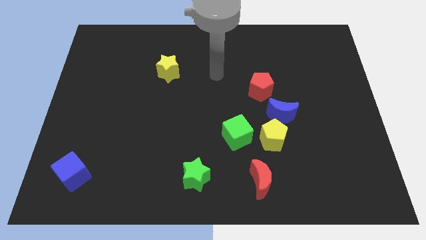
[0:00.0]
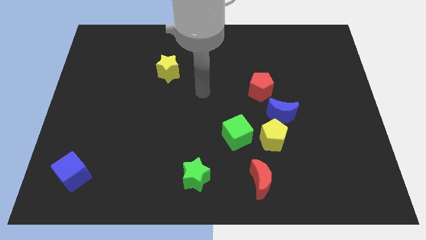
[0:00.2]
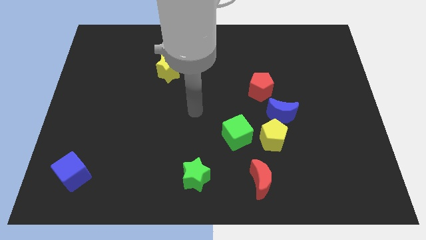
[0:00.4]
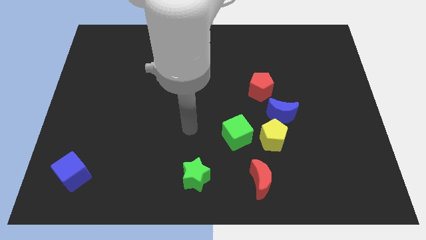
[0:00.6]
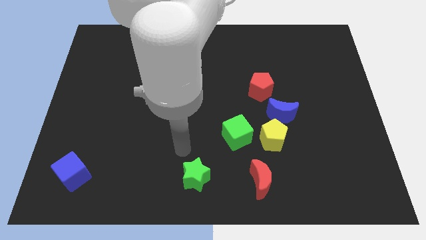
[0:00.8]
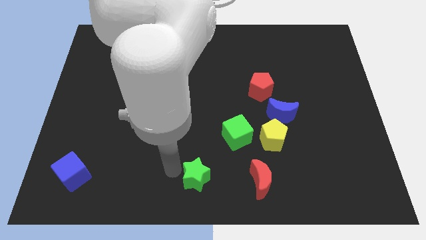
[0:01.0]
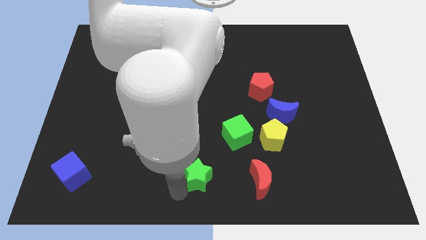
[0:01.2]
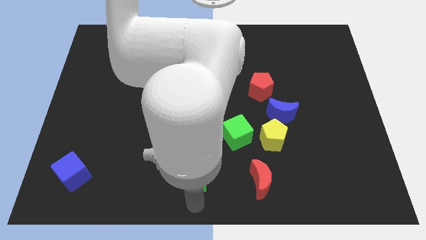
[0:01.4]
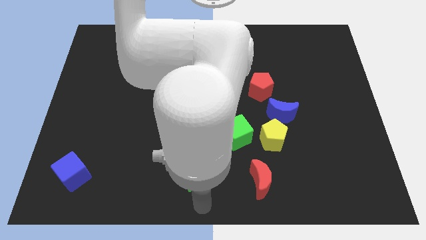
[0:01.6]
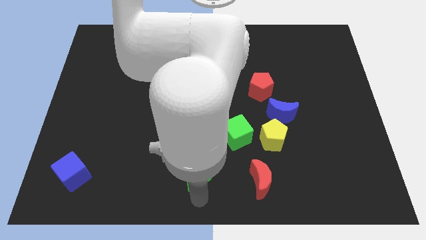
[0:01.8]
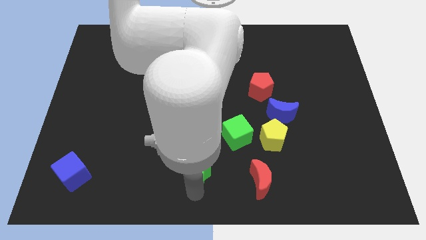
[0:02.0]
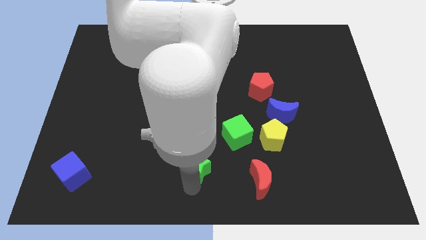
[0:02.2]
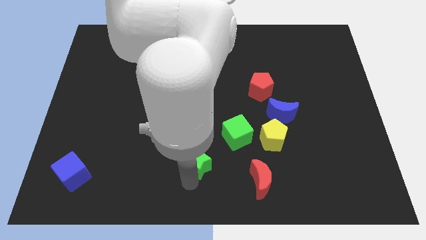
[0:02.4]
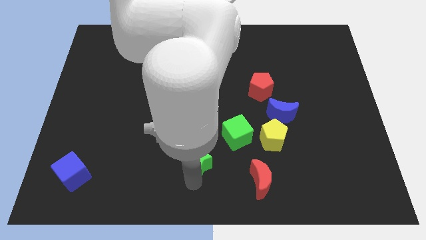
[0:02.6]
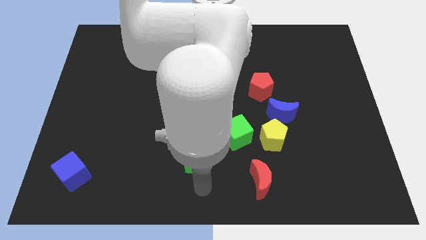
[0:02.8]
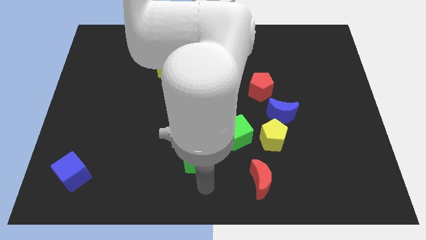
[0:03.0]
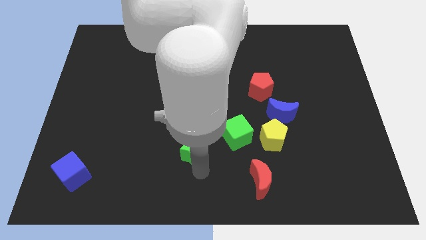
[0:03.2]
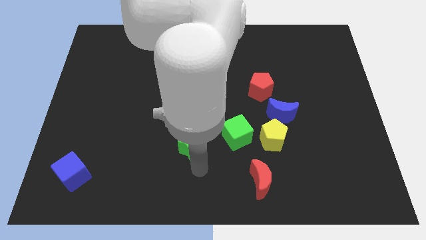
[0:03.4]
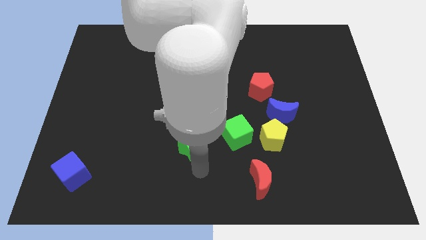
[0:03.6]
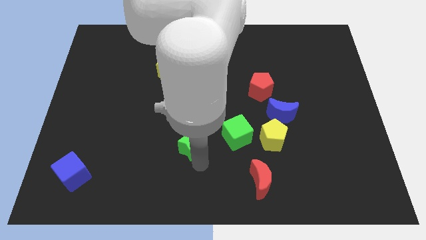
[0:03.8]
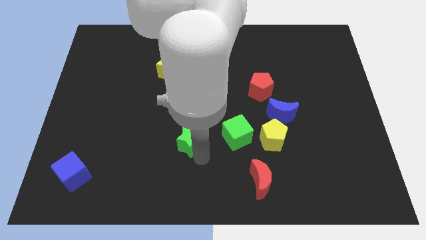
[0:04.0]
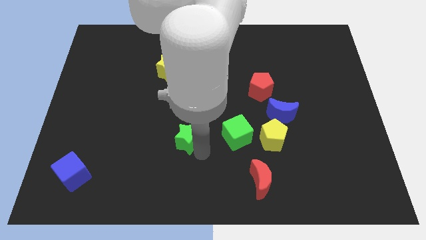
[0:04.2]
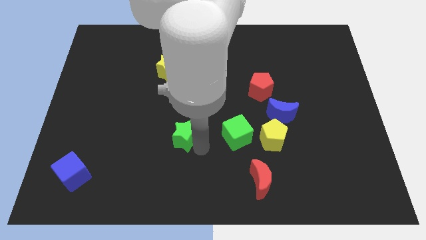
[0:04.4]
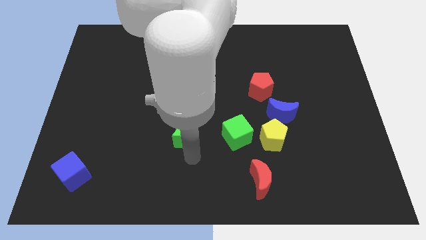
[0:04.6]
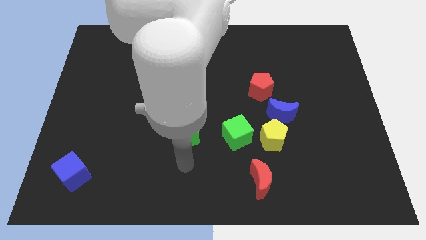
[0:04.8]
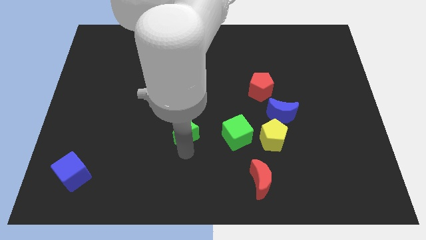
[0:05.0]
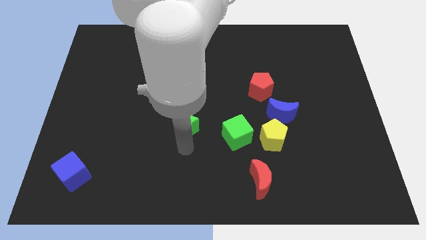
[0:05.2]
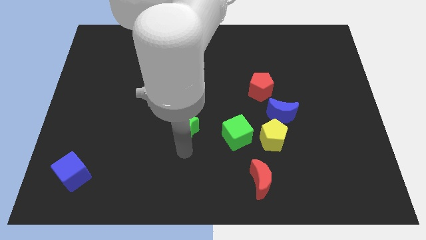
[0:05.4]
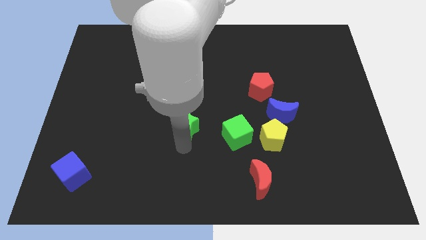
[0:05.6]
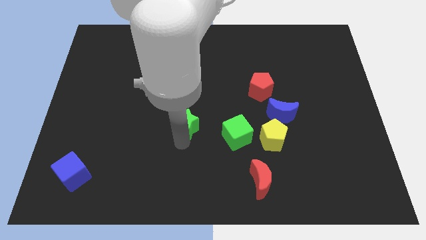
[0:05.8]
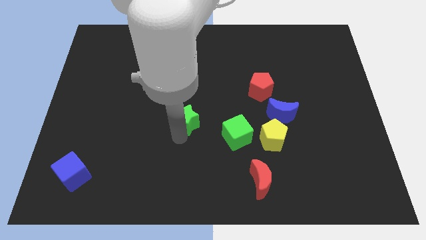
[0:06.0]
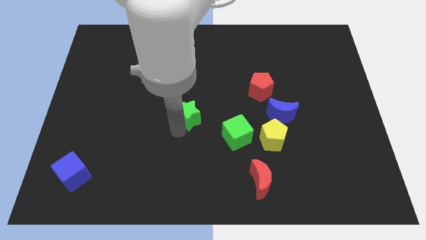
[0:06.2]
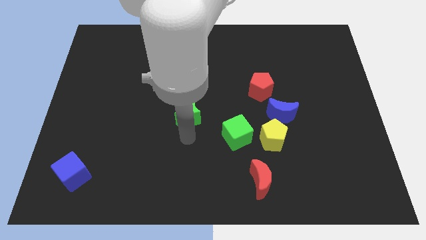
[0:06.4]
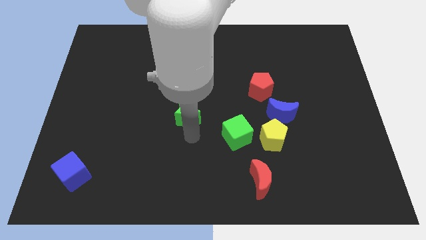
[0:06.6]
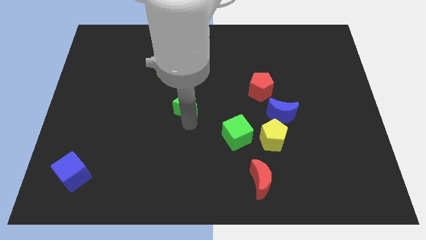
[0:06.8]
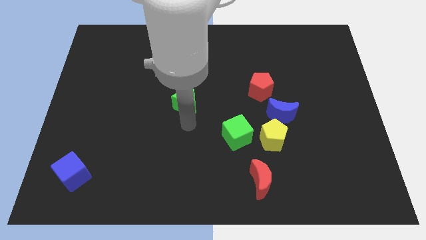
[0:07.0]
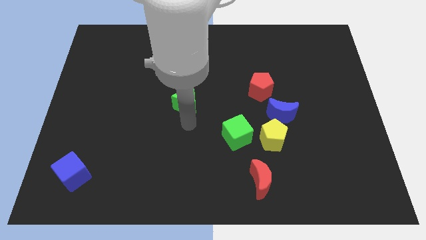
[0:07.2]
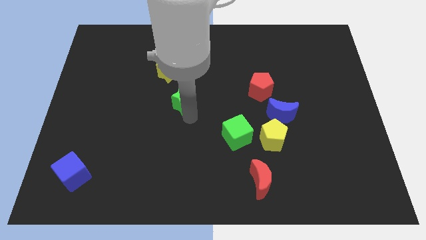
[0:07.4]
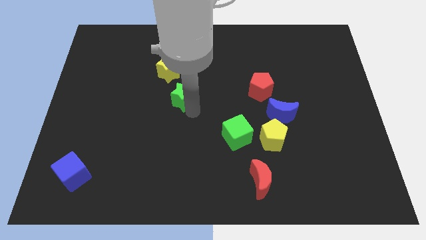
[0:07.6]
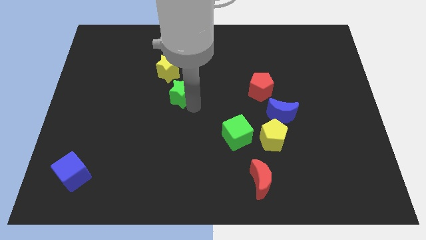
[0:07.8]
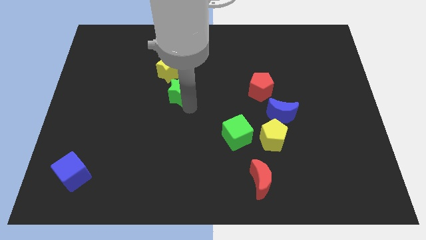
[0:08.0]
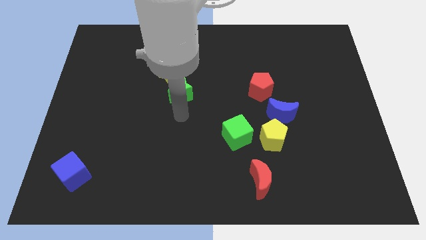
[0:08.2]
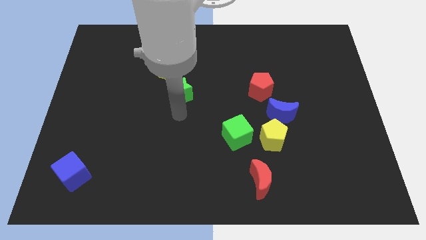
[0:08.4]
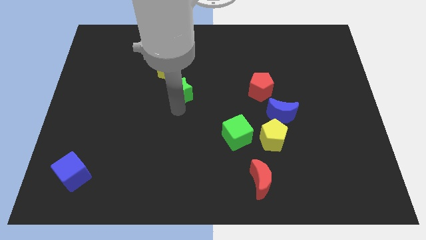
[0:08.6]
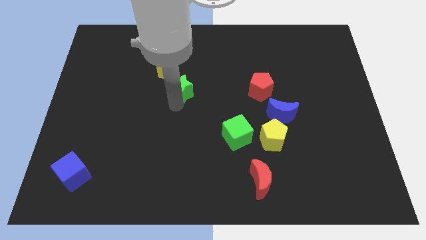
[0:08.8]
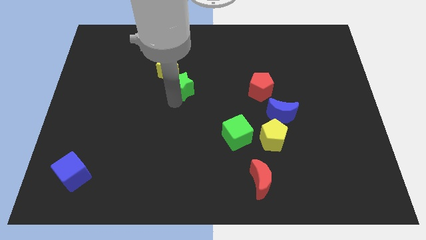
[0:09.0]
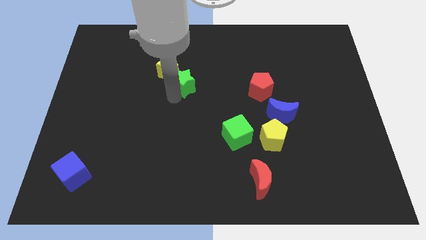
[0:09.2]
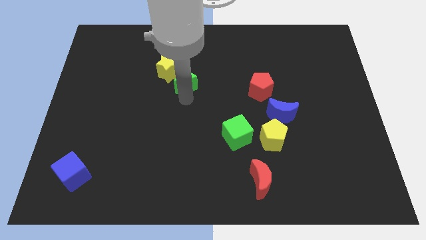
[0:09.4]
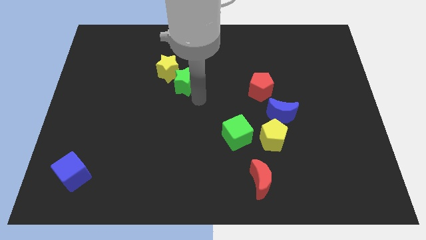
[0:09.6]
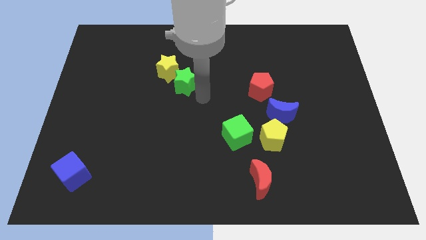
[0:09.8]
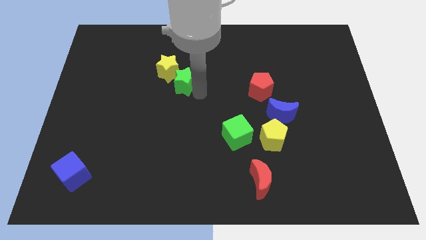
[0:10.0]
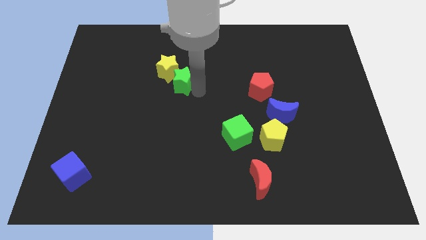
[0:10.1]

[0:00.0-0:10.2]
put the green star to the yellow star

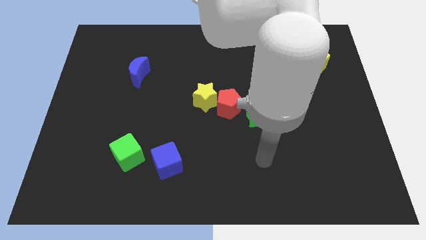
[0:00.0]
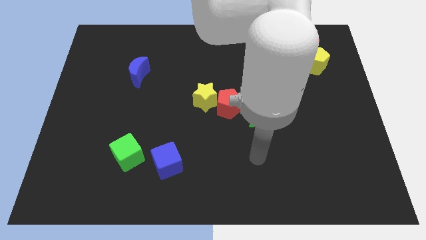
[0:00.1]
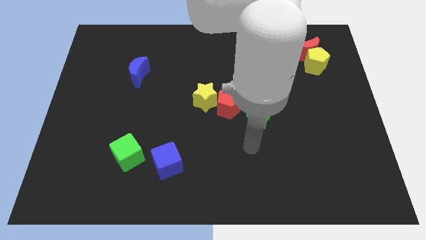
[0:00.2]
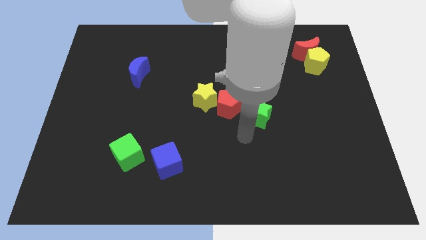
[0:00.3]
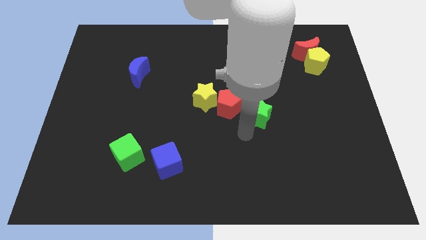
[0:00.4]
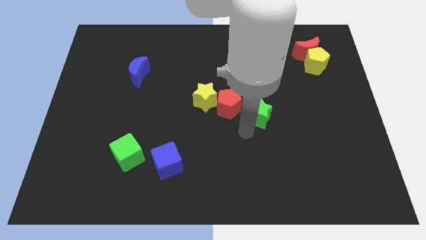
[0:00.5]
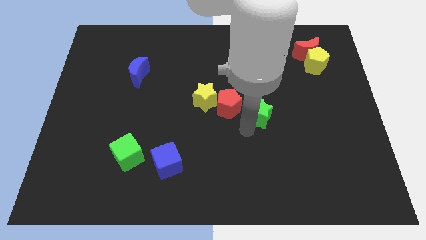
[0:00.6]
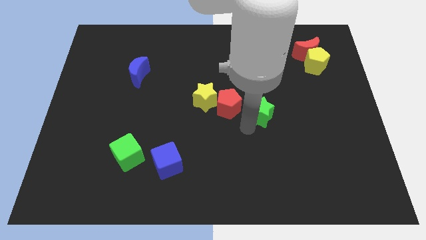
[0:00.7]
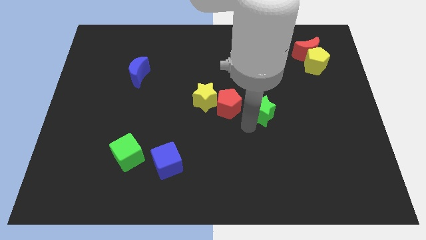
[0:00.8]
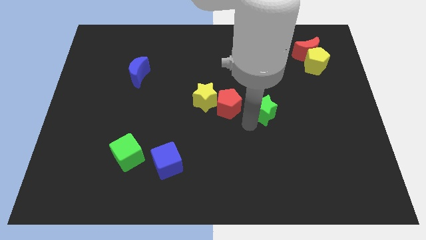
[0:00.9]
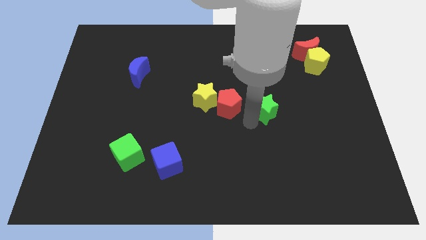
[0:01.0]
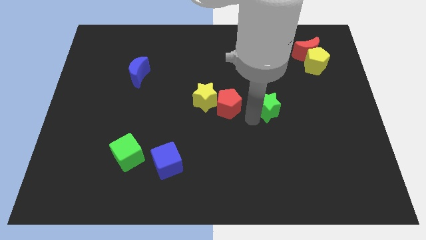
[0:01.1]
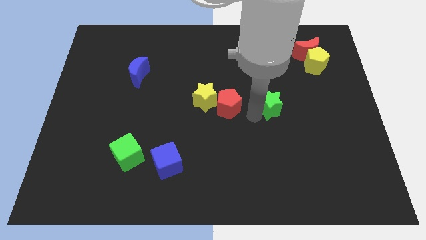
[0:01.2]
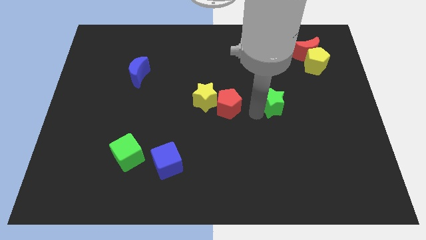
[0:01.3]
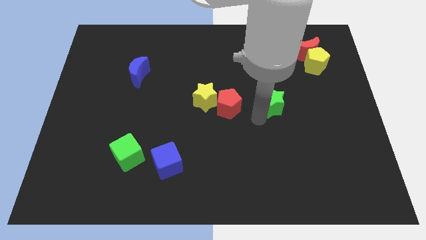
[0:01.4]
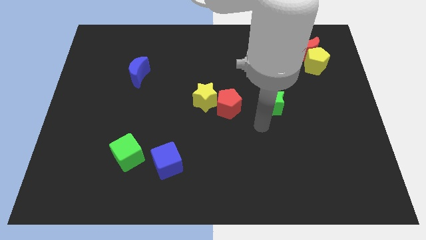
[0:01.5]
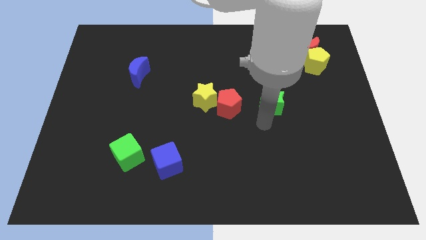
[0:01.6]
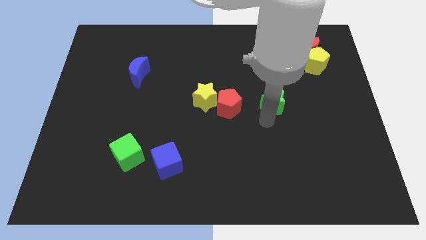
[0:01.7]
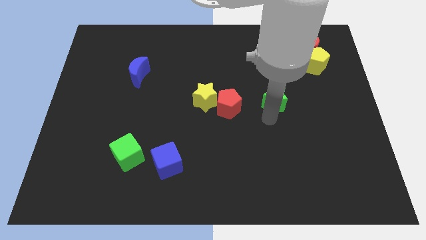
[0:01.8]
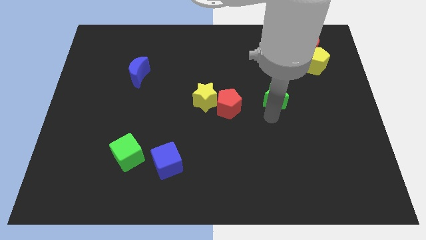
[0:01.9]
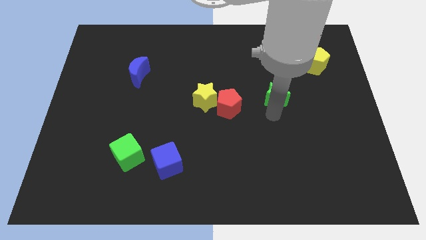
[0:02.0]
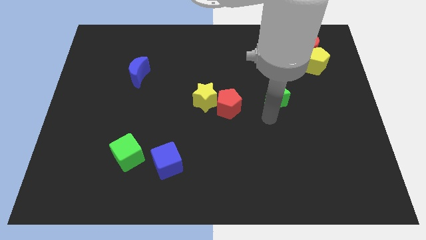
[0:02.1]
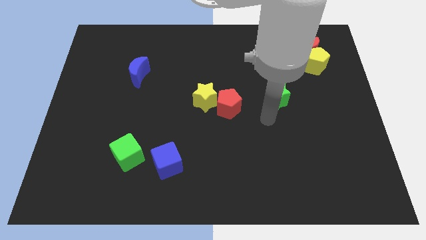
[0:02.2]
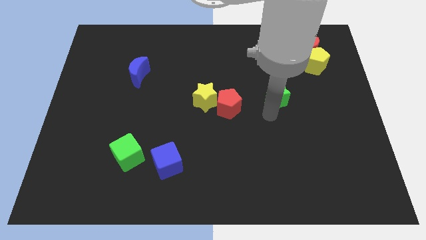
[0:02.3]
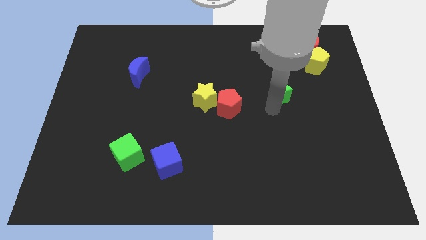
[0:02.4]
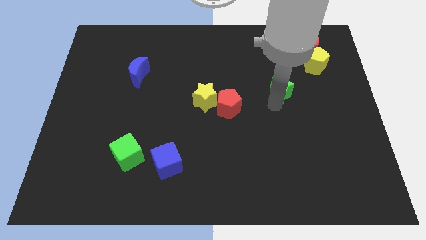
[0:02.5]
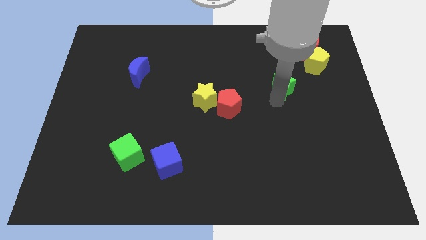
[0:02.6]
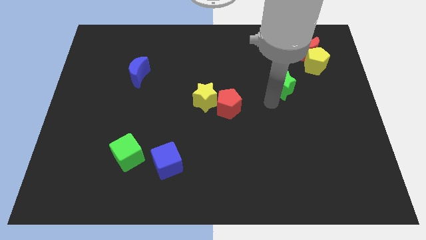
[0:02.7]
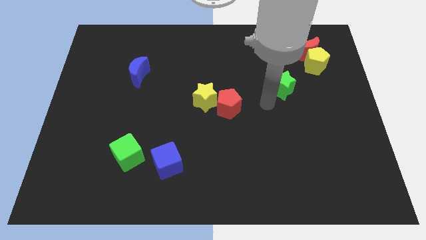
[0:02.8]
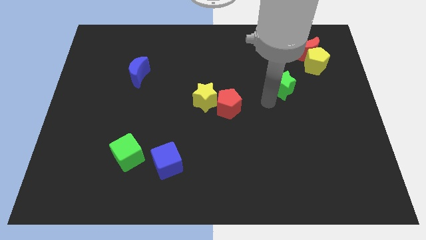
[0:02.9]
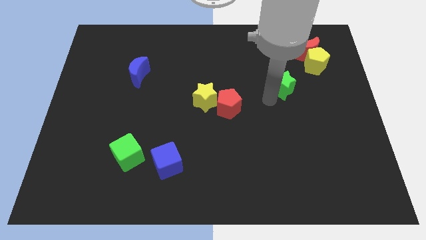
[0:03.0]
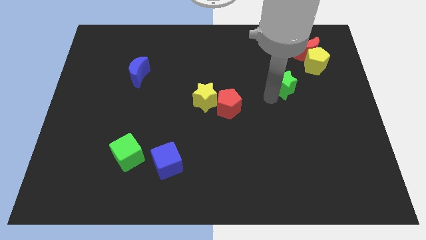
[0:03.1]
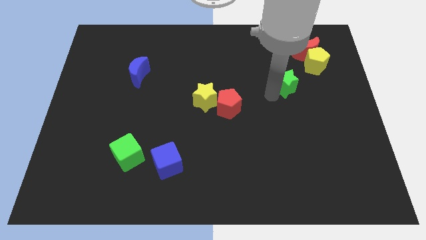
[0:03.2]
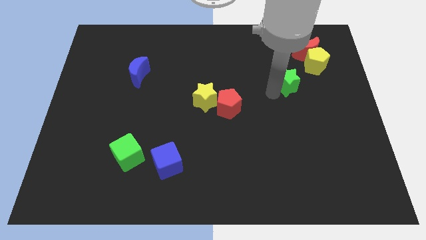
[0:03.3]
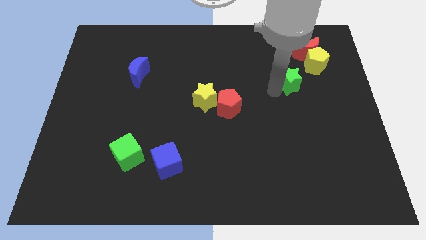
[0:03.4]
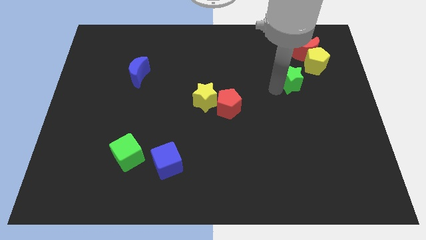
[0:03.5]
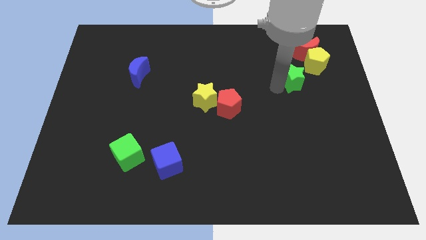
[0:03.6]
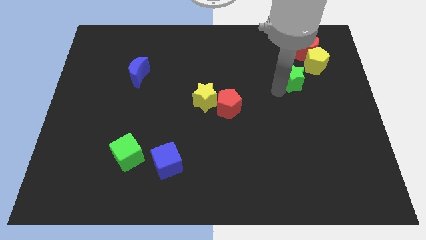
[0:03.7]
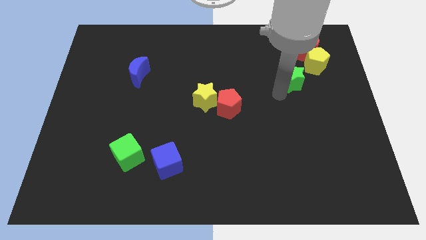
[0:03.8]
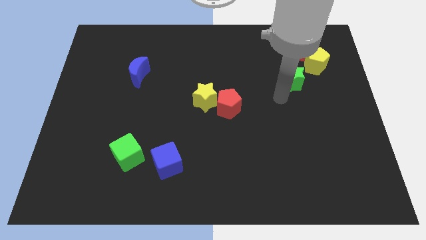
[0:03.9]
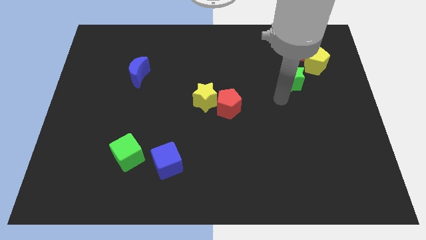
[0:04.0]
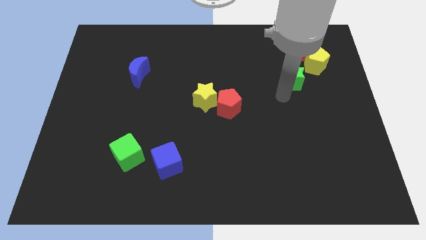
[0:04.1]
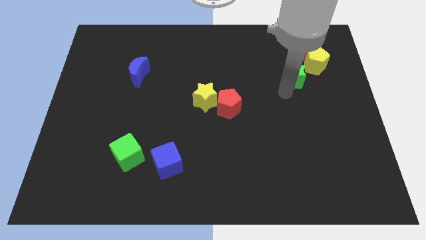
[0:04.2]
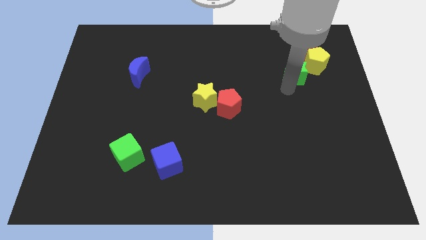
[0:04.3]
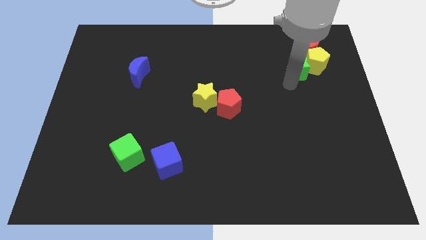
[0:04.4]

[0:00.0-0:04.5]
put the green star to the yellow pentagon
